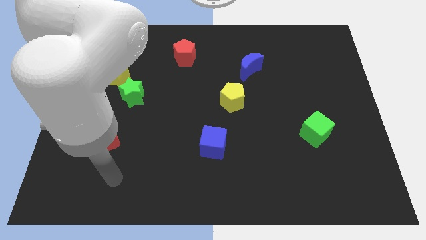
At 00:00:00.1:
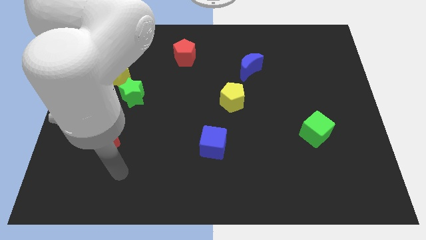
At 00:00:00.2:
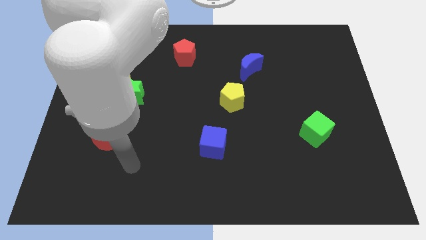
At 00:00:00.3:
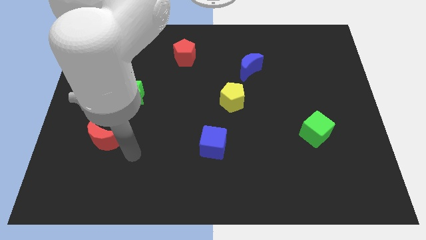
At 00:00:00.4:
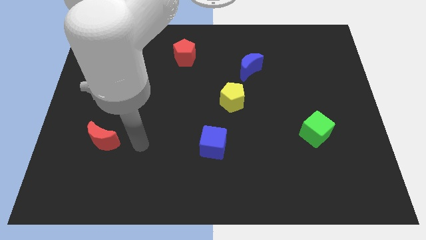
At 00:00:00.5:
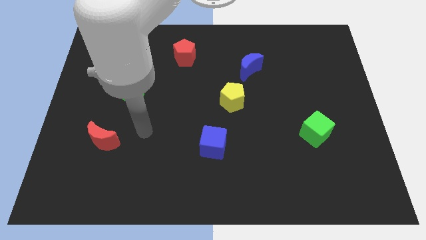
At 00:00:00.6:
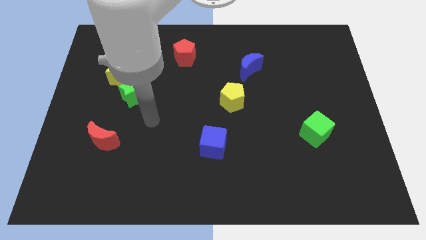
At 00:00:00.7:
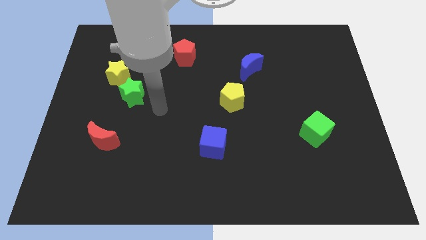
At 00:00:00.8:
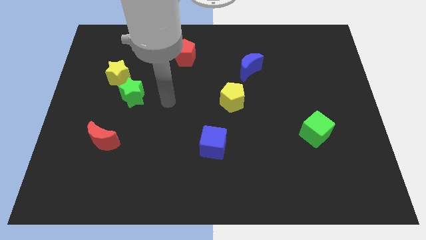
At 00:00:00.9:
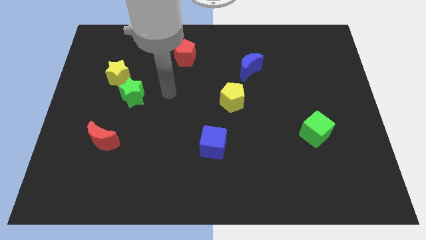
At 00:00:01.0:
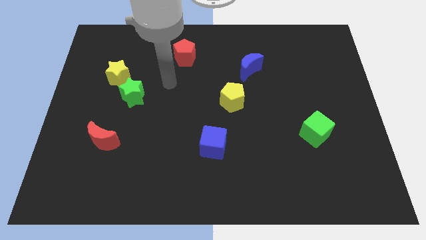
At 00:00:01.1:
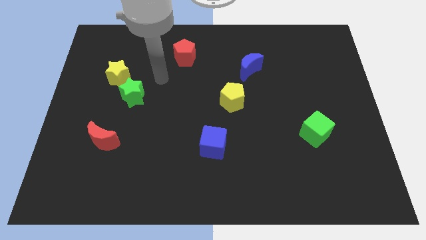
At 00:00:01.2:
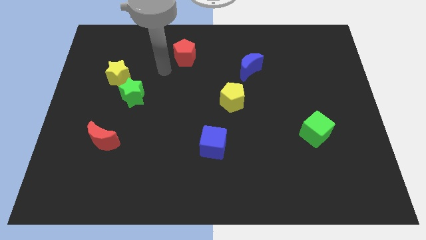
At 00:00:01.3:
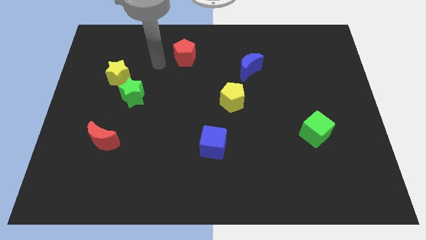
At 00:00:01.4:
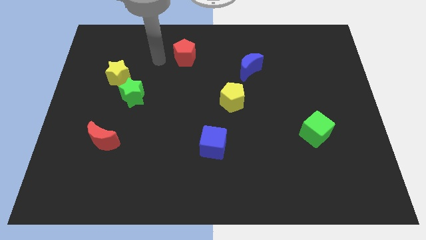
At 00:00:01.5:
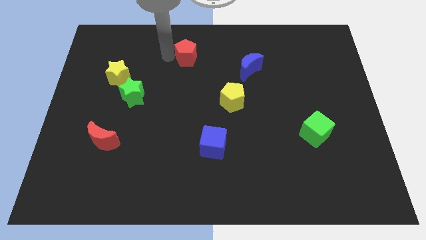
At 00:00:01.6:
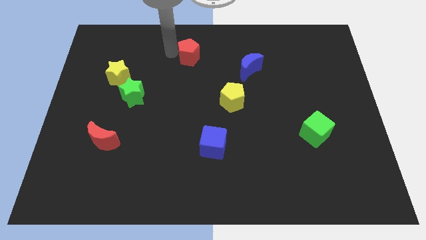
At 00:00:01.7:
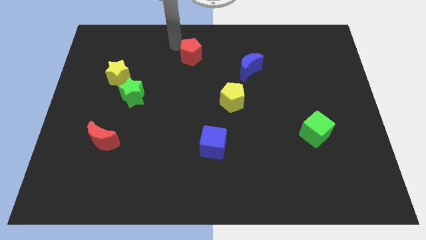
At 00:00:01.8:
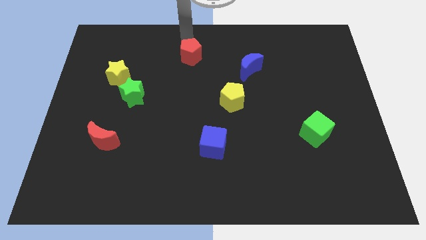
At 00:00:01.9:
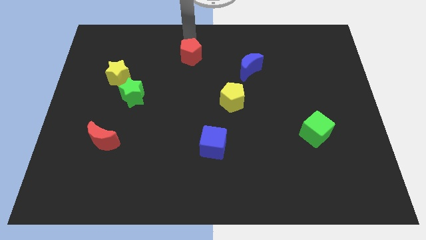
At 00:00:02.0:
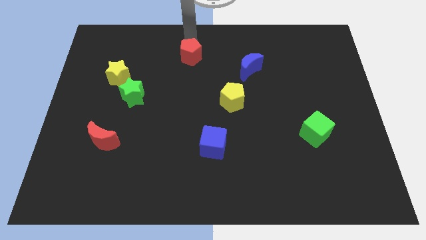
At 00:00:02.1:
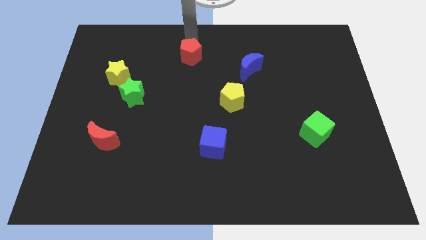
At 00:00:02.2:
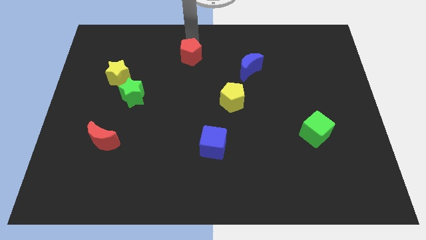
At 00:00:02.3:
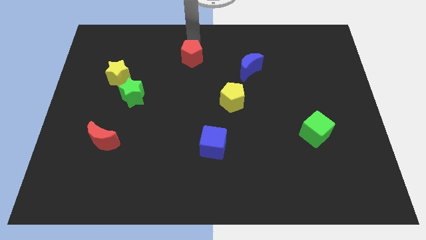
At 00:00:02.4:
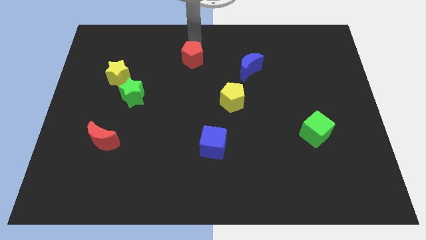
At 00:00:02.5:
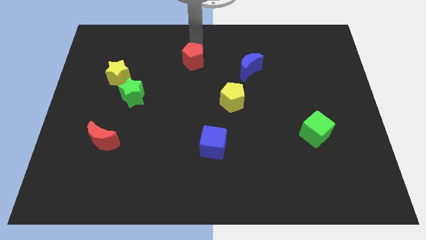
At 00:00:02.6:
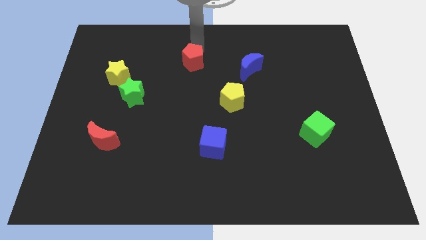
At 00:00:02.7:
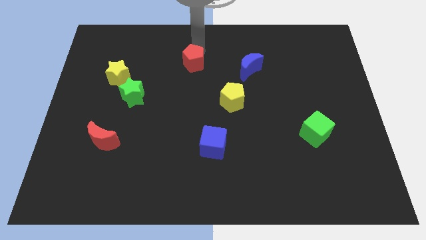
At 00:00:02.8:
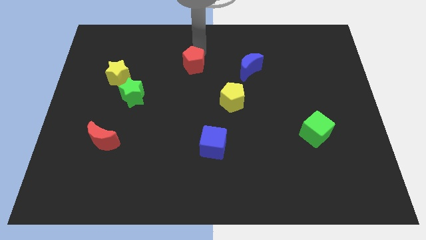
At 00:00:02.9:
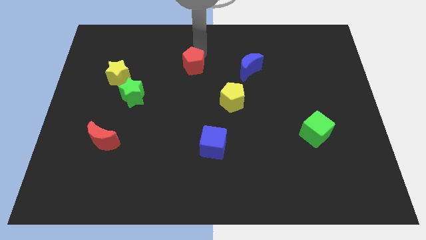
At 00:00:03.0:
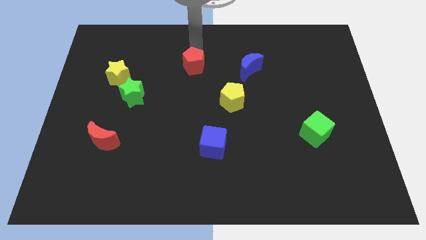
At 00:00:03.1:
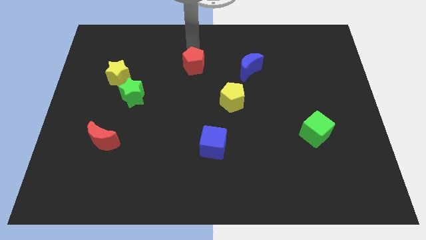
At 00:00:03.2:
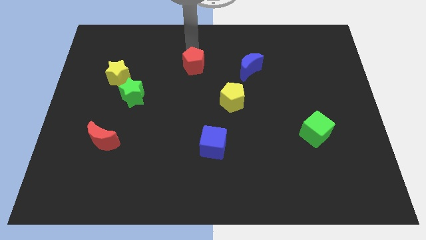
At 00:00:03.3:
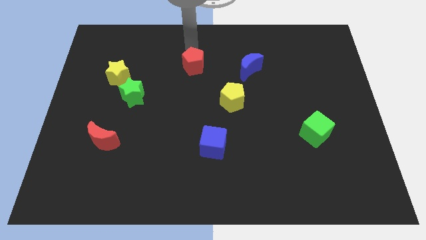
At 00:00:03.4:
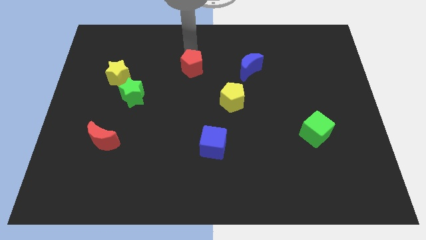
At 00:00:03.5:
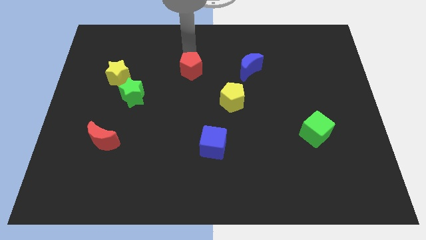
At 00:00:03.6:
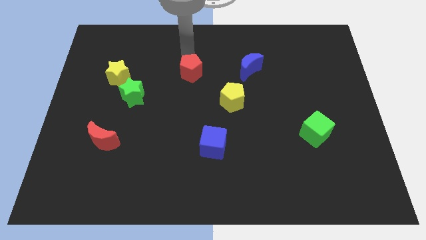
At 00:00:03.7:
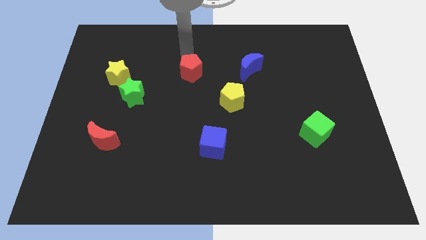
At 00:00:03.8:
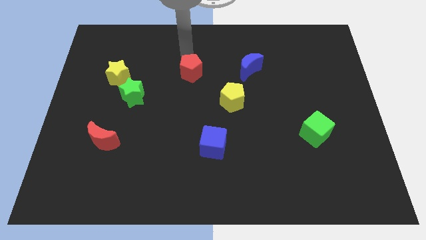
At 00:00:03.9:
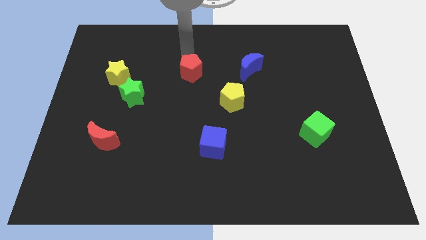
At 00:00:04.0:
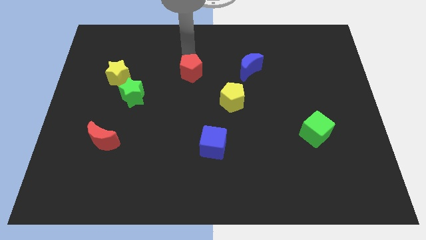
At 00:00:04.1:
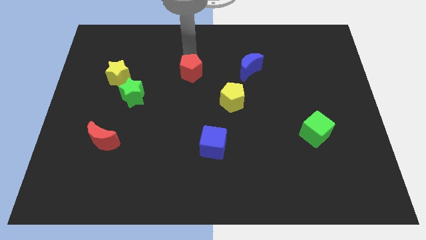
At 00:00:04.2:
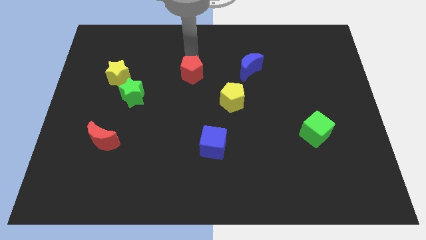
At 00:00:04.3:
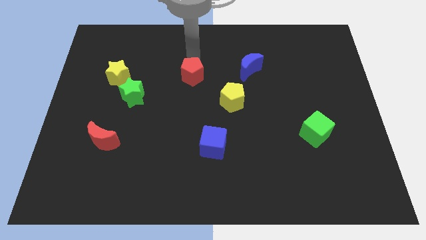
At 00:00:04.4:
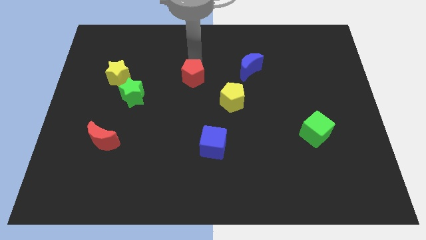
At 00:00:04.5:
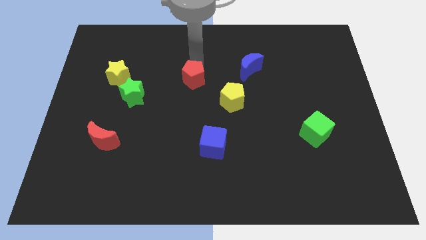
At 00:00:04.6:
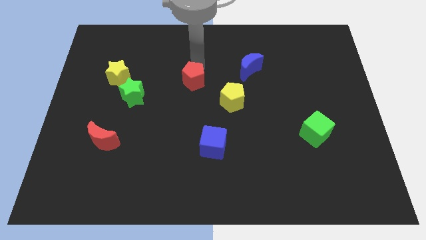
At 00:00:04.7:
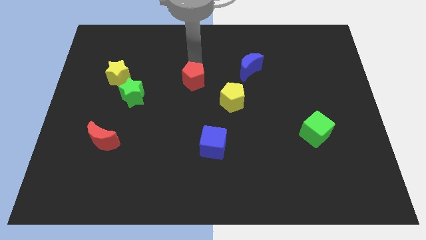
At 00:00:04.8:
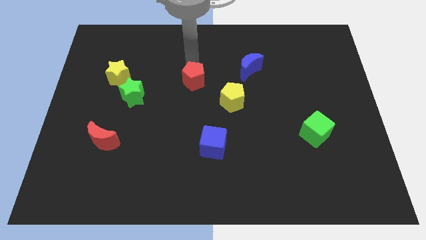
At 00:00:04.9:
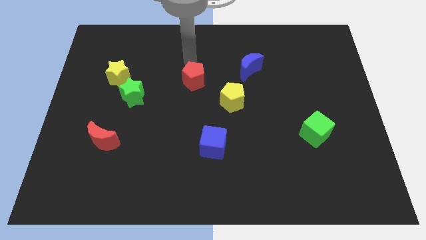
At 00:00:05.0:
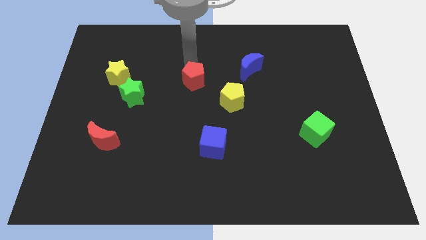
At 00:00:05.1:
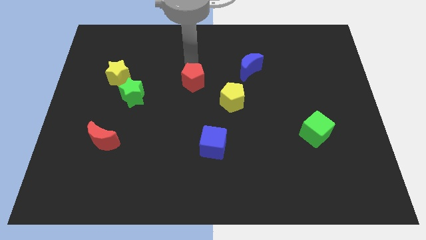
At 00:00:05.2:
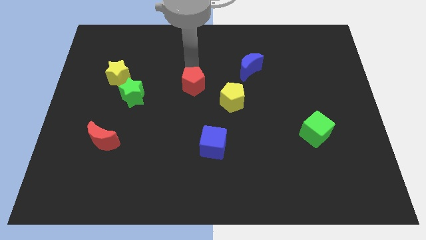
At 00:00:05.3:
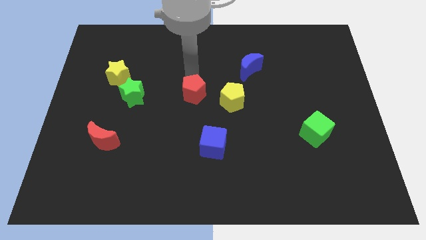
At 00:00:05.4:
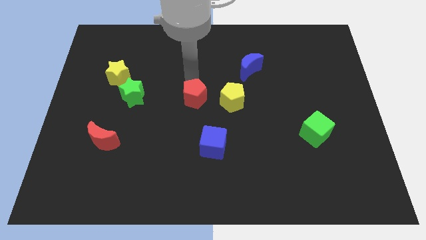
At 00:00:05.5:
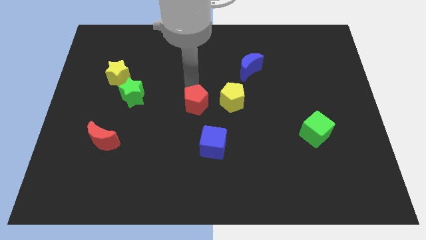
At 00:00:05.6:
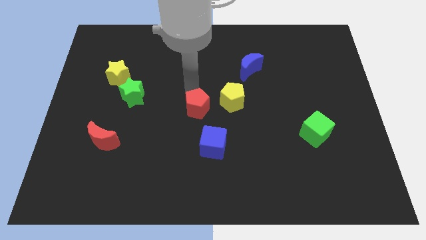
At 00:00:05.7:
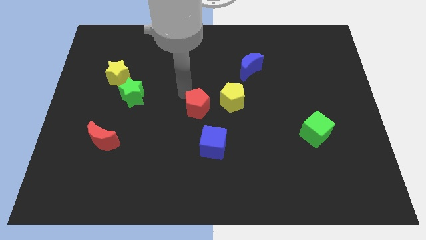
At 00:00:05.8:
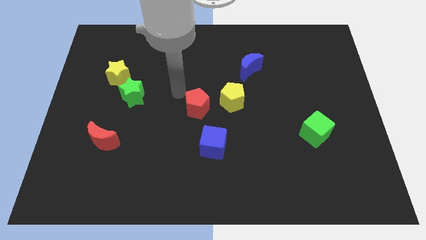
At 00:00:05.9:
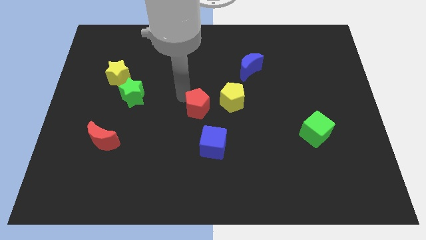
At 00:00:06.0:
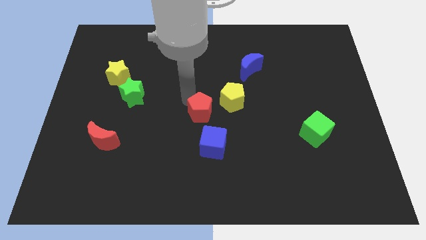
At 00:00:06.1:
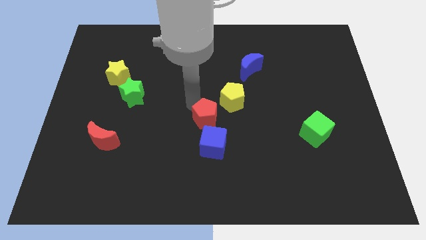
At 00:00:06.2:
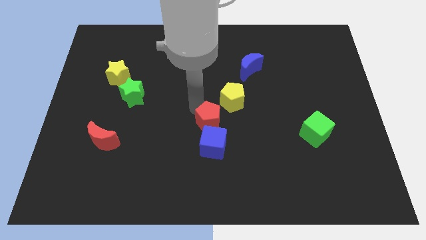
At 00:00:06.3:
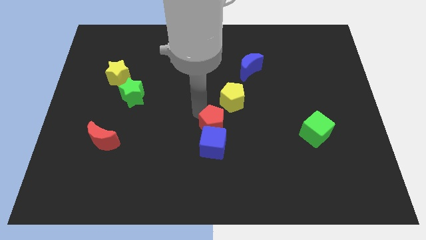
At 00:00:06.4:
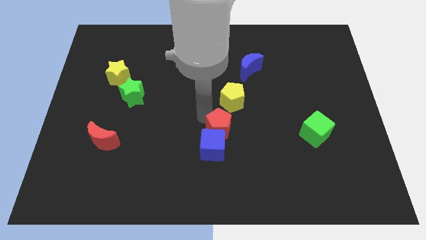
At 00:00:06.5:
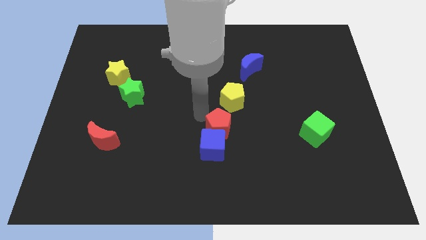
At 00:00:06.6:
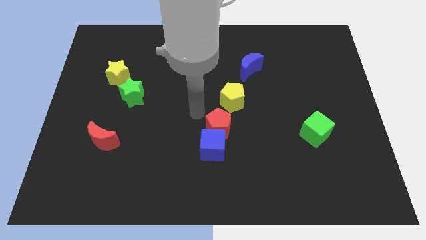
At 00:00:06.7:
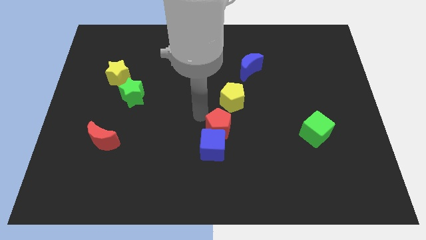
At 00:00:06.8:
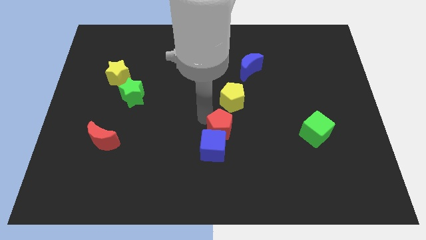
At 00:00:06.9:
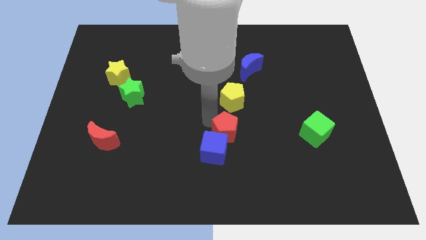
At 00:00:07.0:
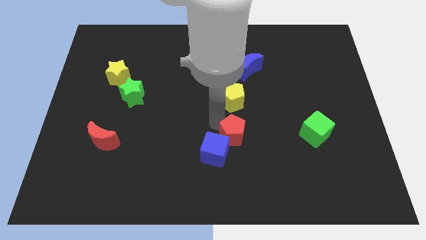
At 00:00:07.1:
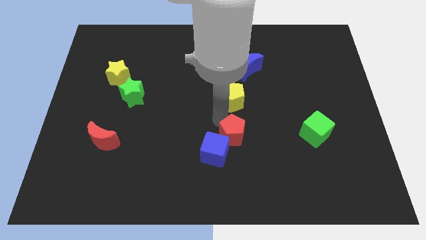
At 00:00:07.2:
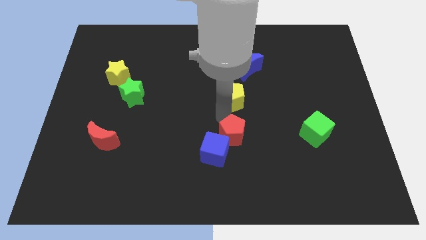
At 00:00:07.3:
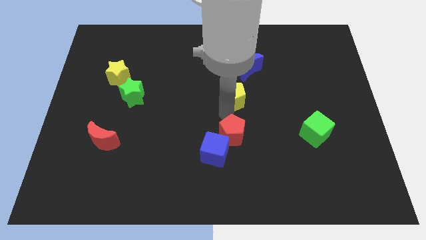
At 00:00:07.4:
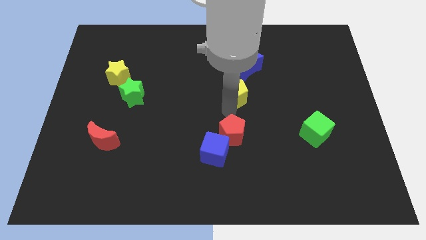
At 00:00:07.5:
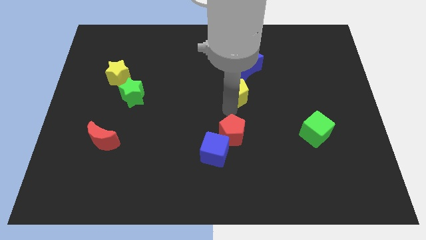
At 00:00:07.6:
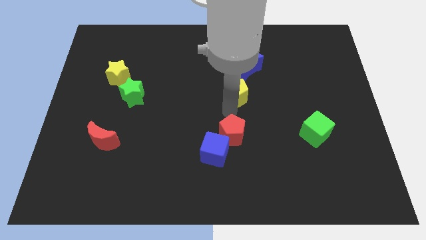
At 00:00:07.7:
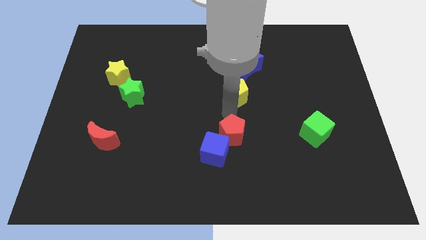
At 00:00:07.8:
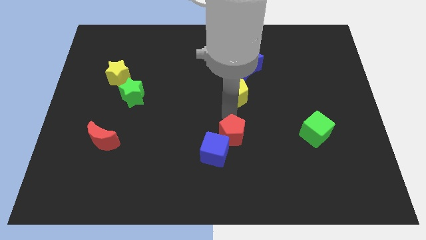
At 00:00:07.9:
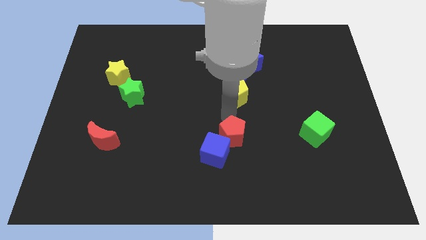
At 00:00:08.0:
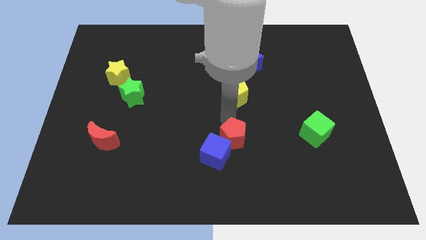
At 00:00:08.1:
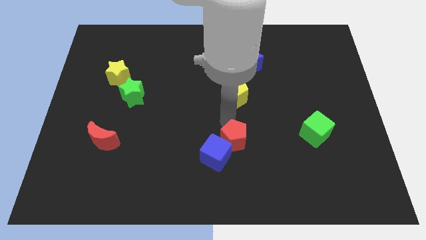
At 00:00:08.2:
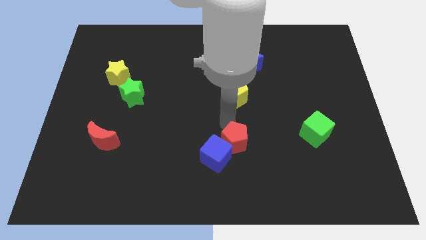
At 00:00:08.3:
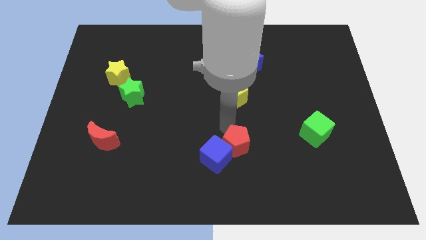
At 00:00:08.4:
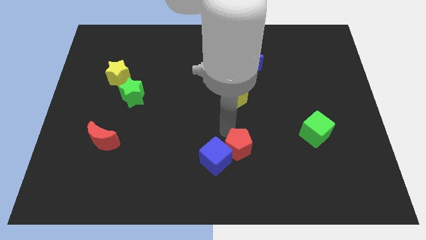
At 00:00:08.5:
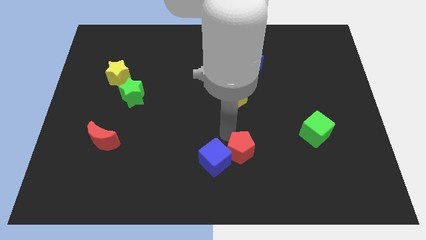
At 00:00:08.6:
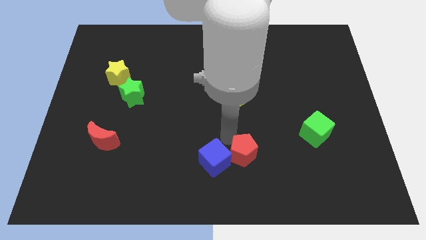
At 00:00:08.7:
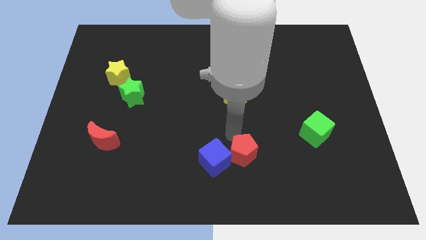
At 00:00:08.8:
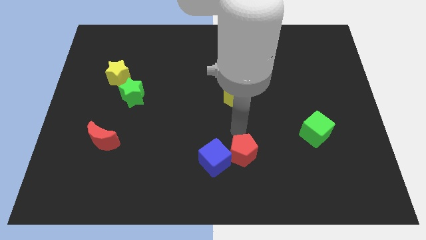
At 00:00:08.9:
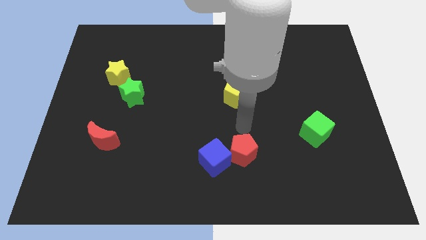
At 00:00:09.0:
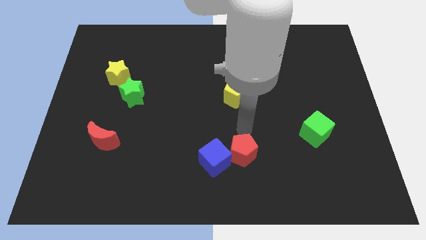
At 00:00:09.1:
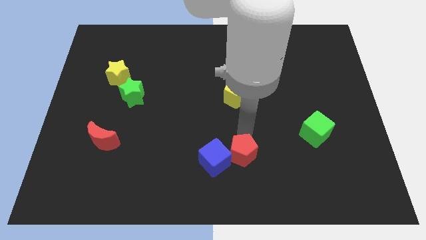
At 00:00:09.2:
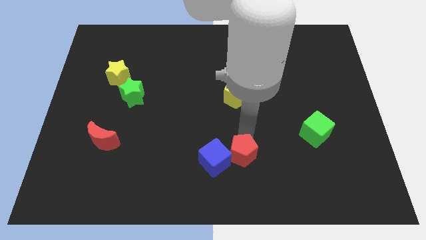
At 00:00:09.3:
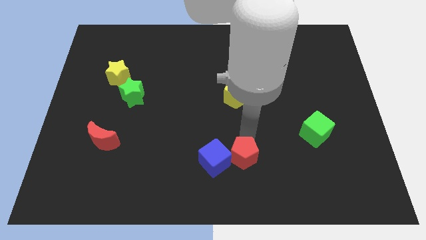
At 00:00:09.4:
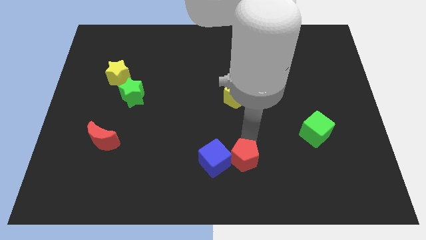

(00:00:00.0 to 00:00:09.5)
slide the red pentagon to the bottom right side of the blue cube
